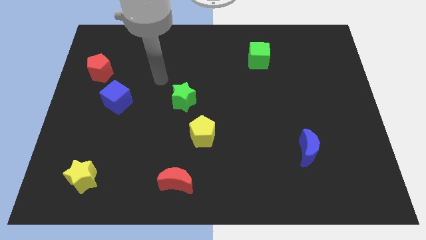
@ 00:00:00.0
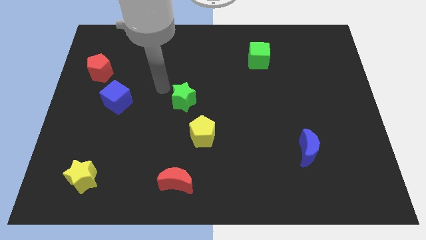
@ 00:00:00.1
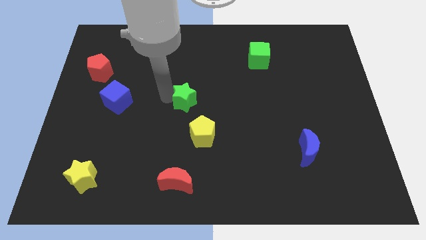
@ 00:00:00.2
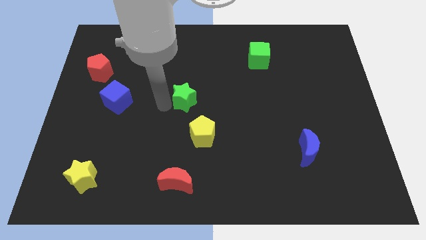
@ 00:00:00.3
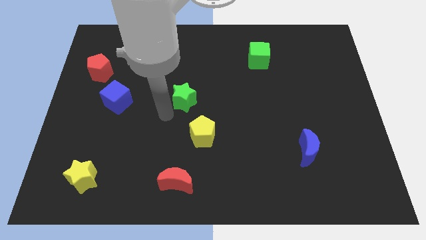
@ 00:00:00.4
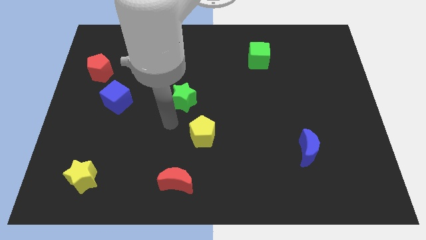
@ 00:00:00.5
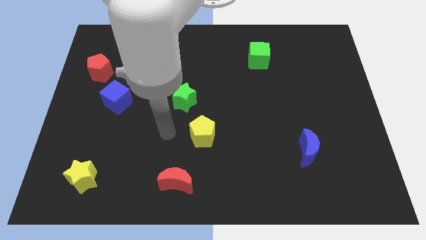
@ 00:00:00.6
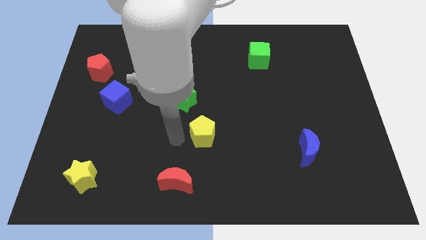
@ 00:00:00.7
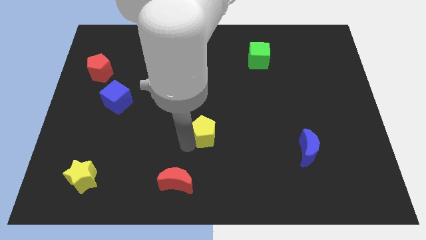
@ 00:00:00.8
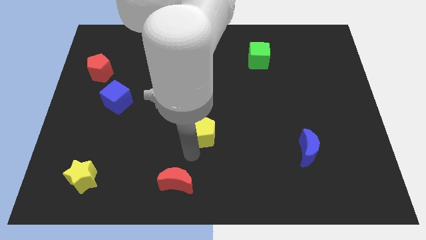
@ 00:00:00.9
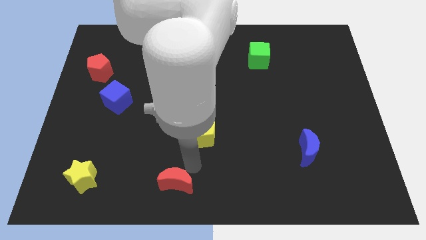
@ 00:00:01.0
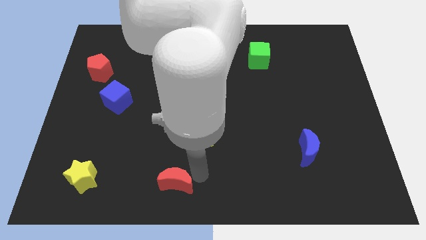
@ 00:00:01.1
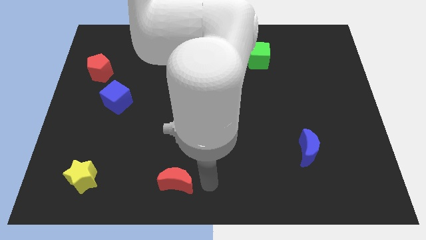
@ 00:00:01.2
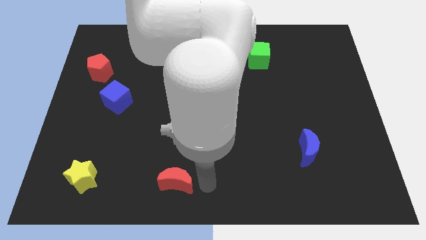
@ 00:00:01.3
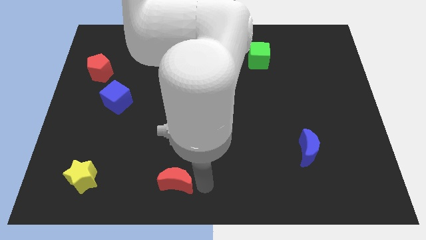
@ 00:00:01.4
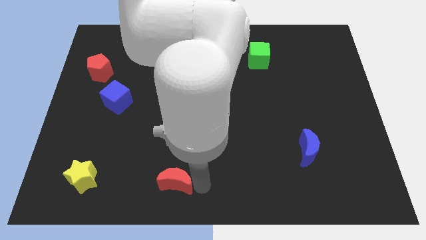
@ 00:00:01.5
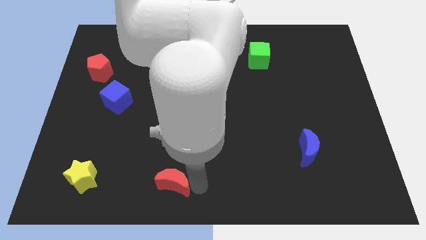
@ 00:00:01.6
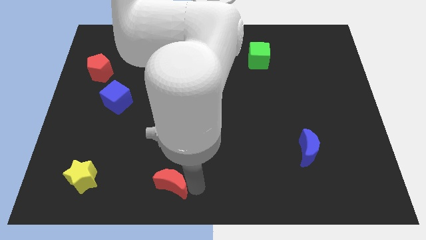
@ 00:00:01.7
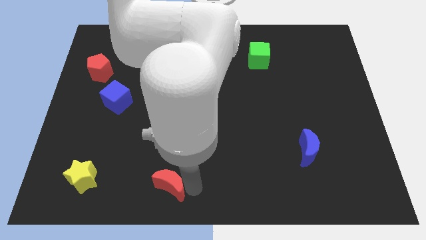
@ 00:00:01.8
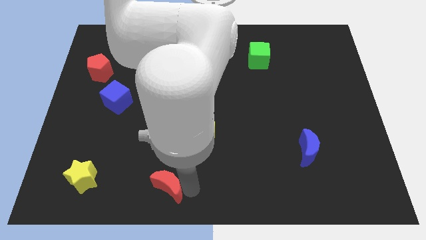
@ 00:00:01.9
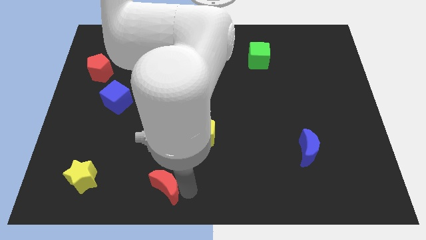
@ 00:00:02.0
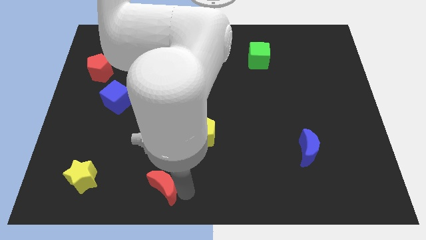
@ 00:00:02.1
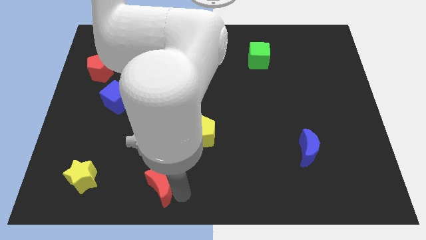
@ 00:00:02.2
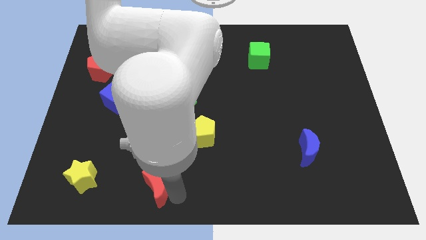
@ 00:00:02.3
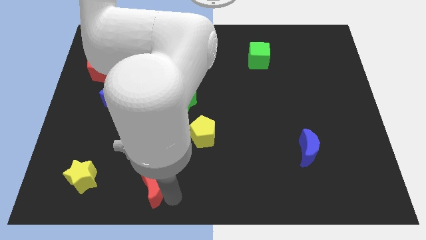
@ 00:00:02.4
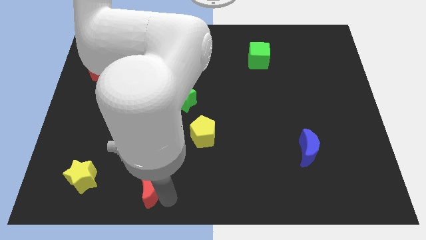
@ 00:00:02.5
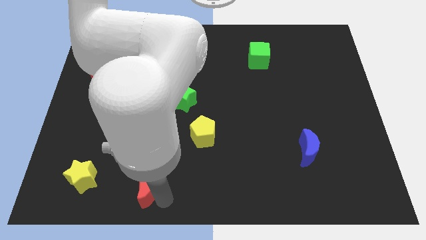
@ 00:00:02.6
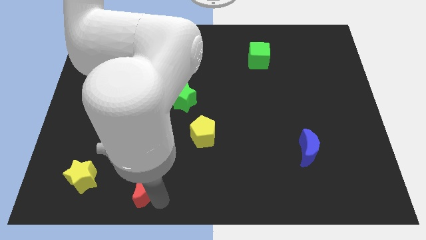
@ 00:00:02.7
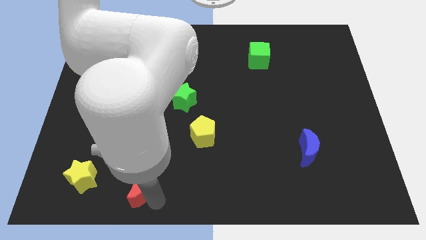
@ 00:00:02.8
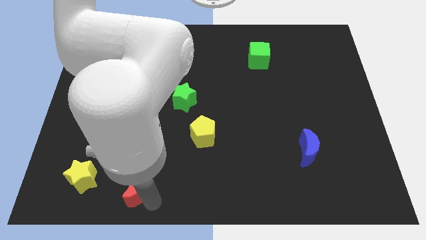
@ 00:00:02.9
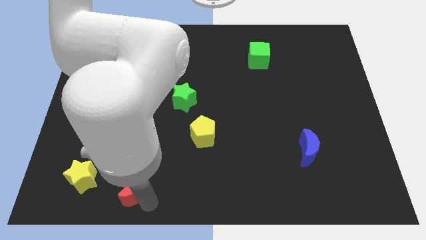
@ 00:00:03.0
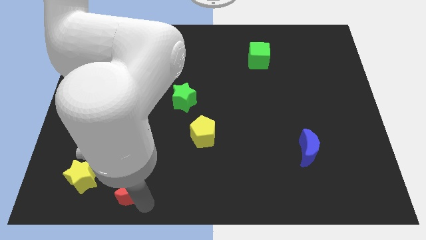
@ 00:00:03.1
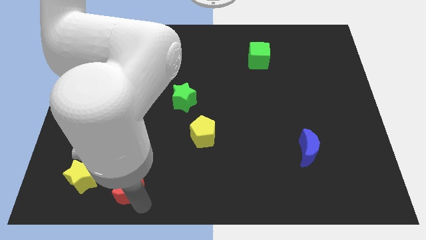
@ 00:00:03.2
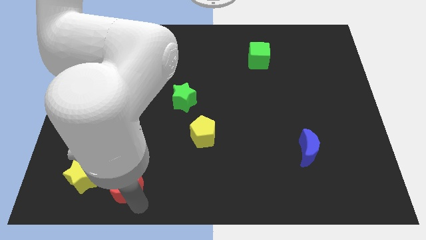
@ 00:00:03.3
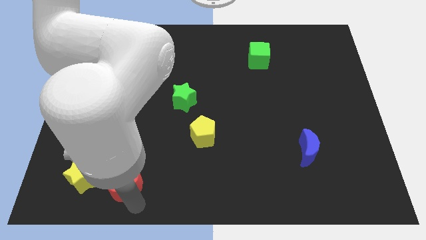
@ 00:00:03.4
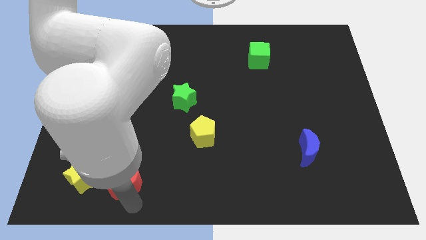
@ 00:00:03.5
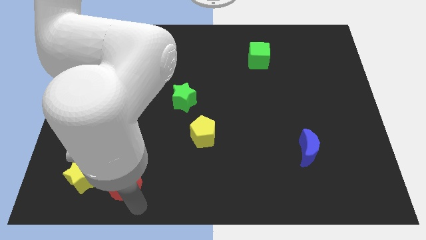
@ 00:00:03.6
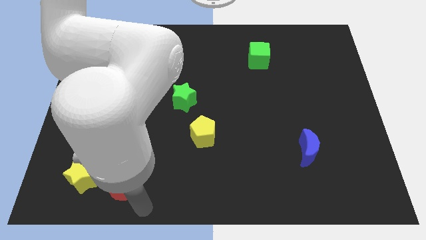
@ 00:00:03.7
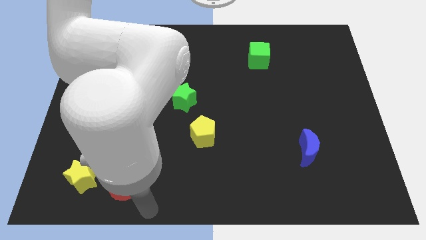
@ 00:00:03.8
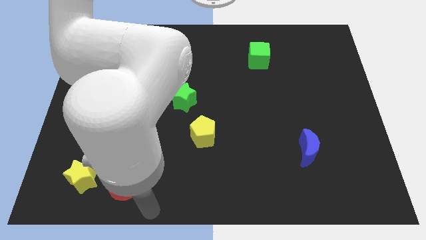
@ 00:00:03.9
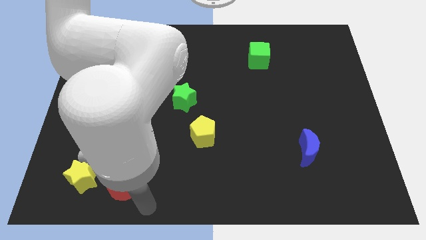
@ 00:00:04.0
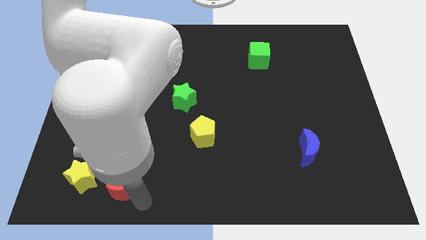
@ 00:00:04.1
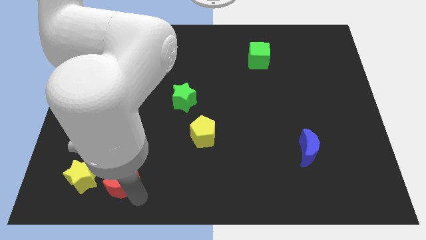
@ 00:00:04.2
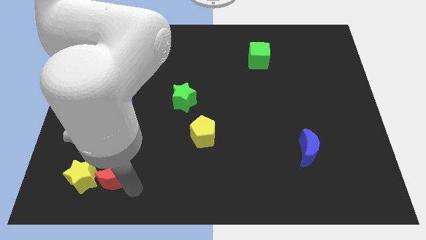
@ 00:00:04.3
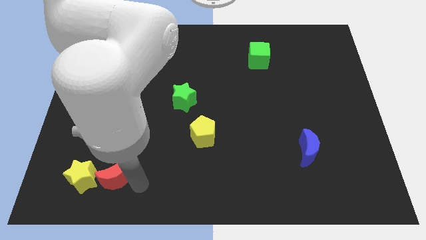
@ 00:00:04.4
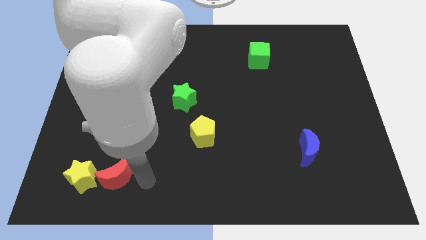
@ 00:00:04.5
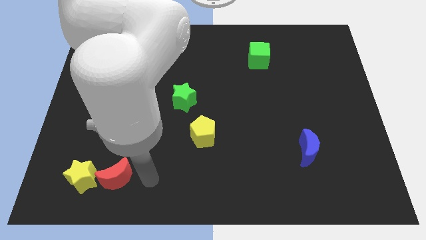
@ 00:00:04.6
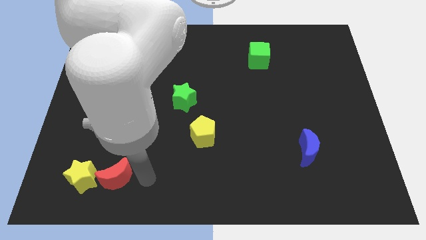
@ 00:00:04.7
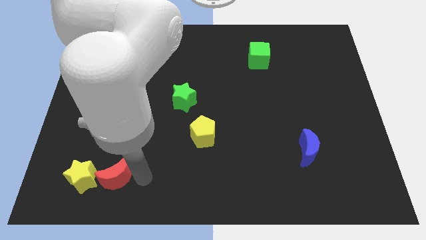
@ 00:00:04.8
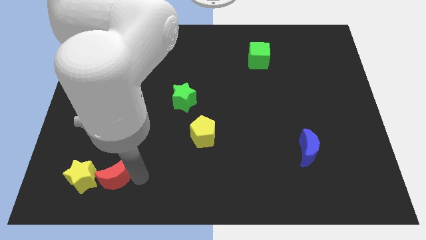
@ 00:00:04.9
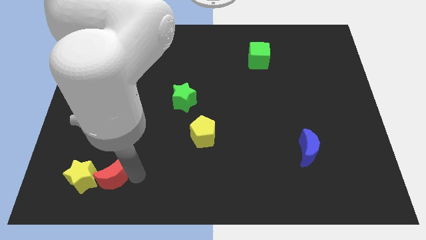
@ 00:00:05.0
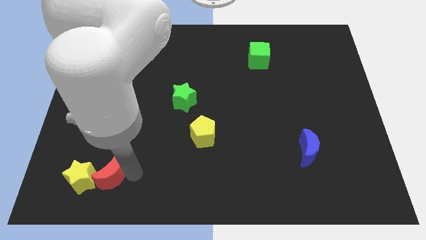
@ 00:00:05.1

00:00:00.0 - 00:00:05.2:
push the red moon towards the yellow star

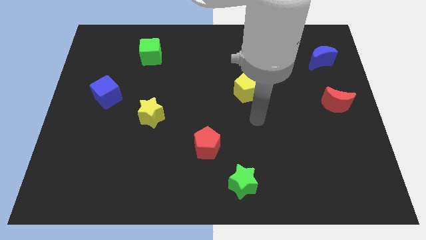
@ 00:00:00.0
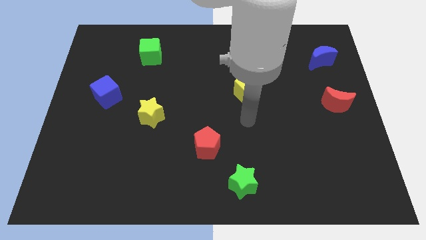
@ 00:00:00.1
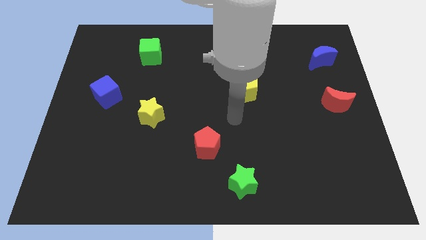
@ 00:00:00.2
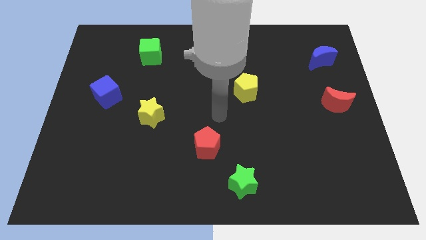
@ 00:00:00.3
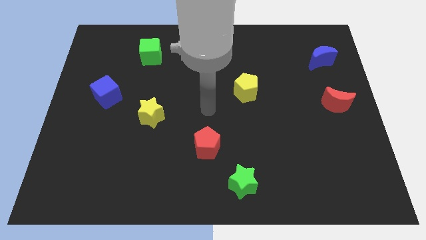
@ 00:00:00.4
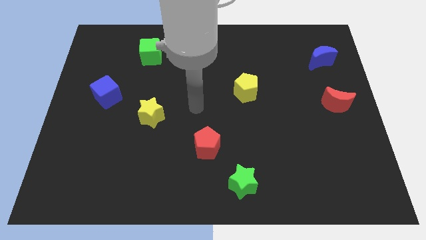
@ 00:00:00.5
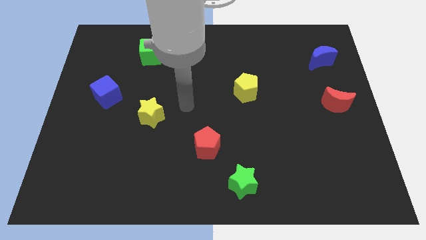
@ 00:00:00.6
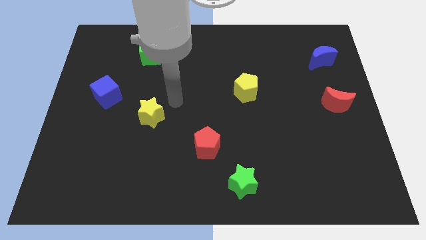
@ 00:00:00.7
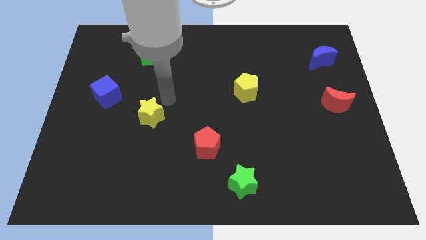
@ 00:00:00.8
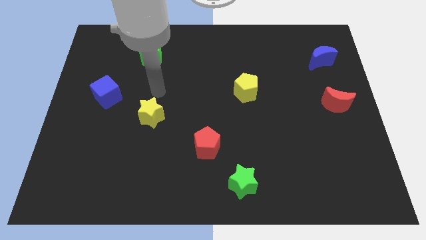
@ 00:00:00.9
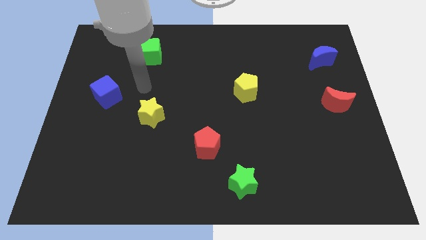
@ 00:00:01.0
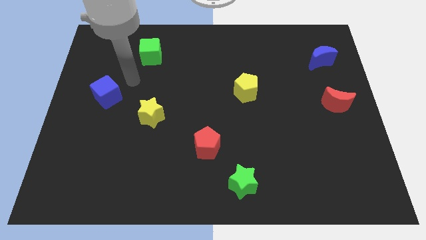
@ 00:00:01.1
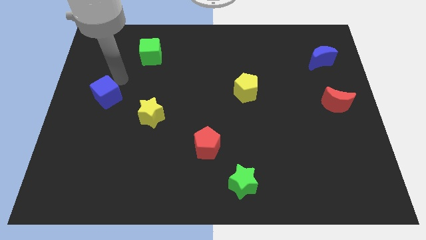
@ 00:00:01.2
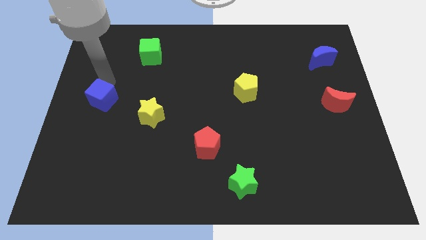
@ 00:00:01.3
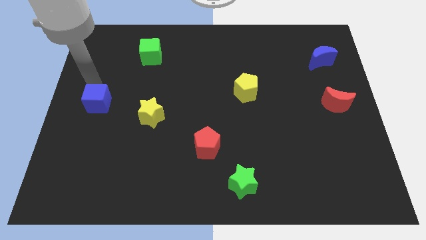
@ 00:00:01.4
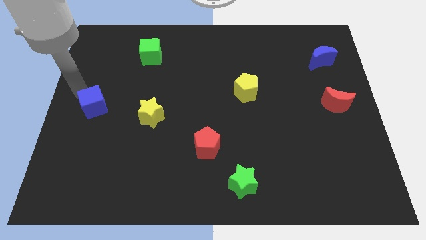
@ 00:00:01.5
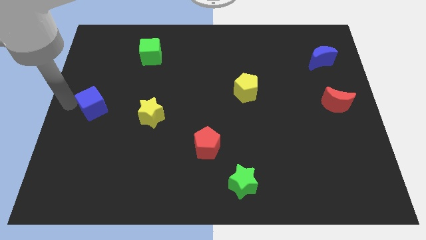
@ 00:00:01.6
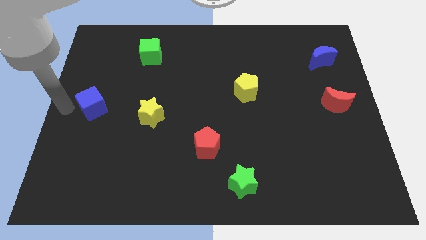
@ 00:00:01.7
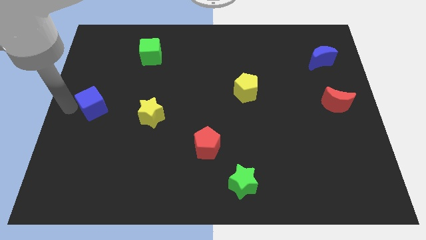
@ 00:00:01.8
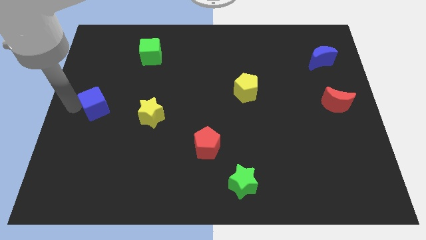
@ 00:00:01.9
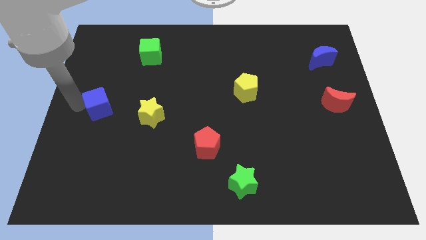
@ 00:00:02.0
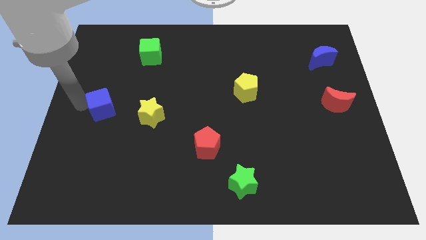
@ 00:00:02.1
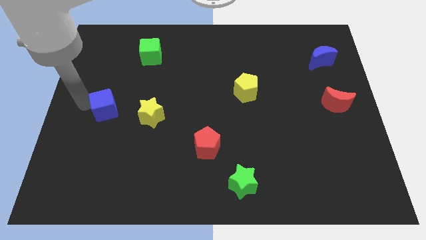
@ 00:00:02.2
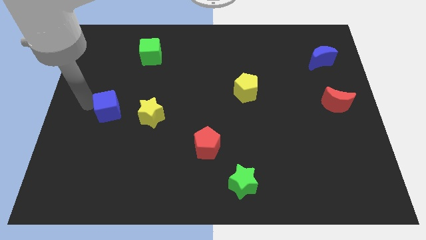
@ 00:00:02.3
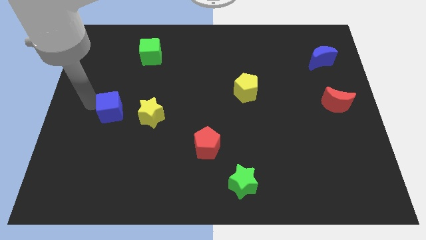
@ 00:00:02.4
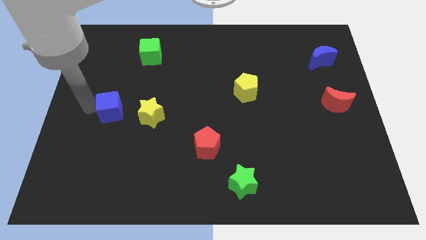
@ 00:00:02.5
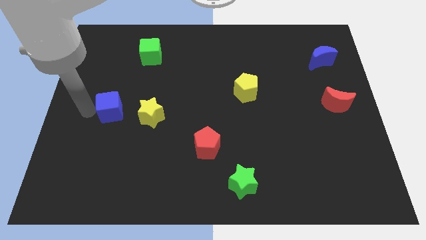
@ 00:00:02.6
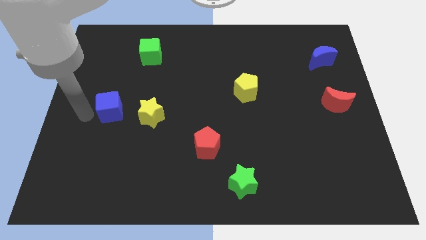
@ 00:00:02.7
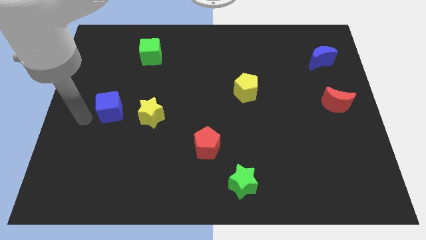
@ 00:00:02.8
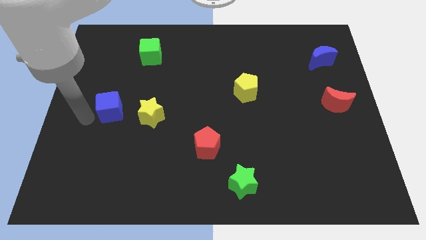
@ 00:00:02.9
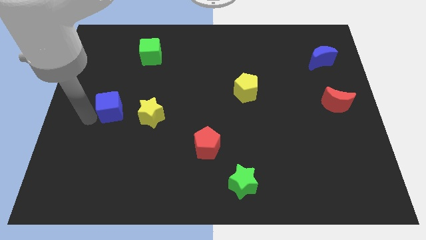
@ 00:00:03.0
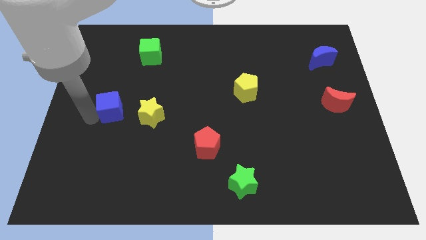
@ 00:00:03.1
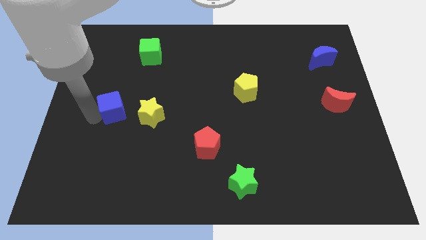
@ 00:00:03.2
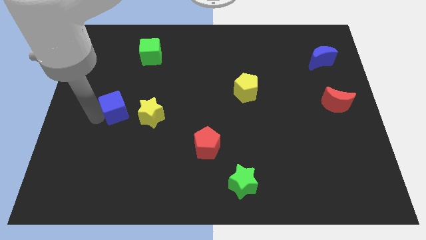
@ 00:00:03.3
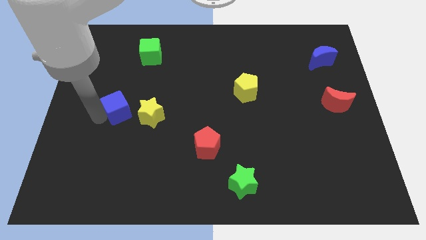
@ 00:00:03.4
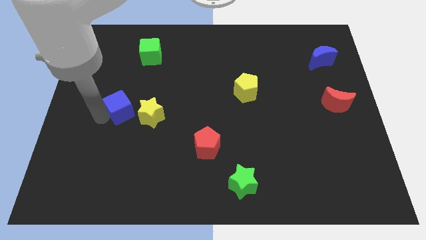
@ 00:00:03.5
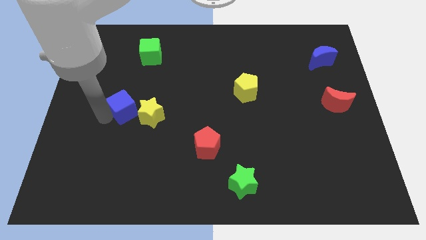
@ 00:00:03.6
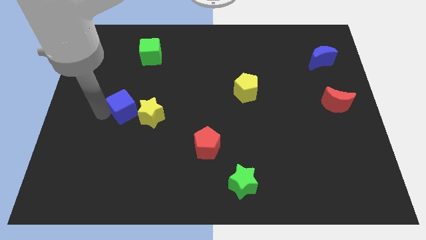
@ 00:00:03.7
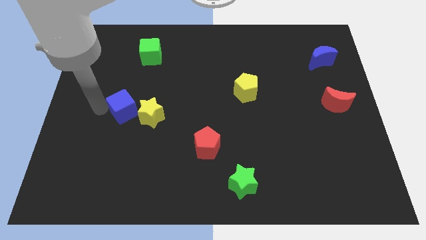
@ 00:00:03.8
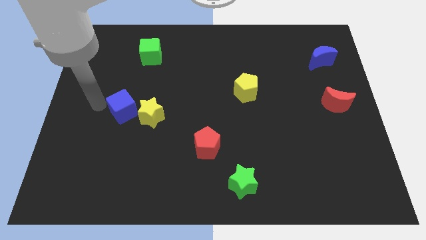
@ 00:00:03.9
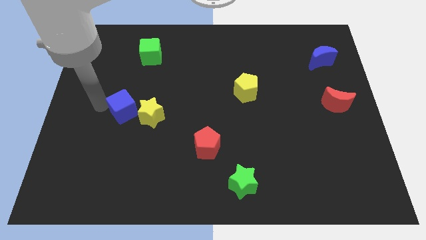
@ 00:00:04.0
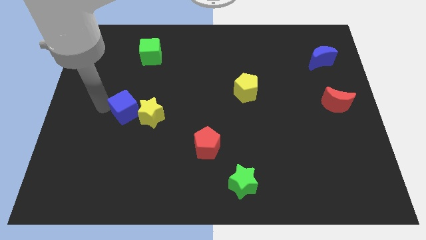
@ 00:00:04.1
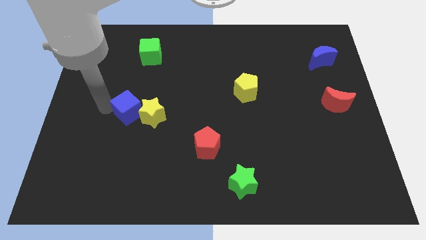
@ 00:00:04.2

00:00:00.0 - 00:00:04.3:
push the blue cube to the yellow star
